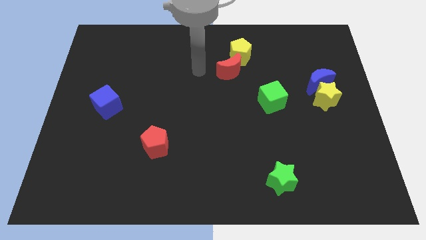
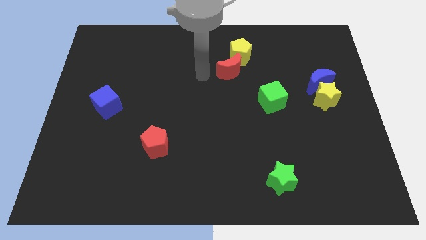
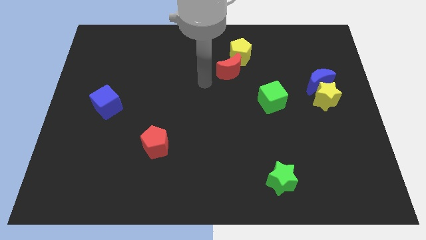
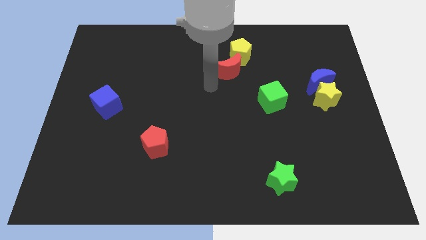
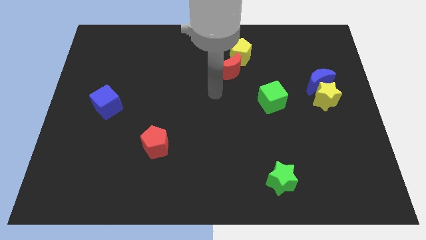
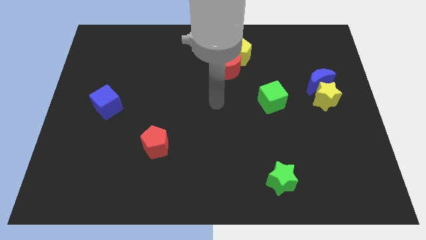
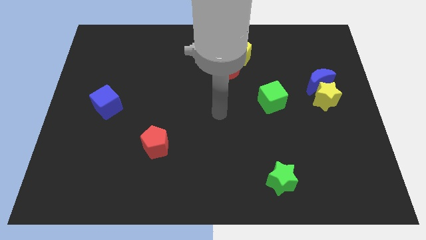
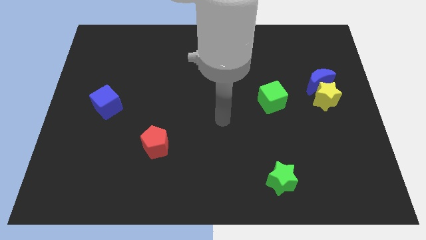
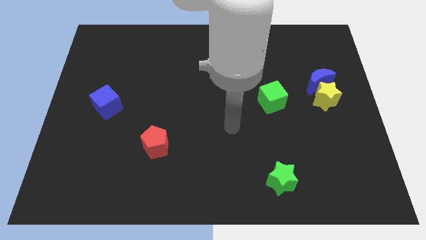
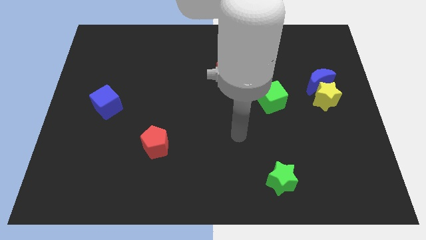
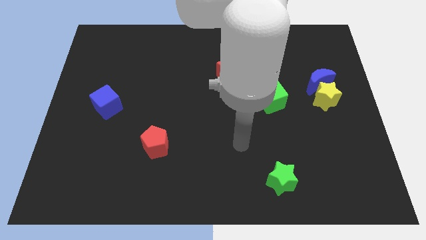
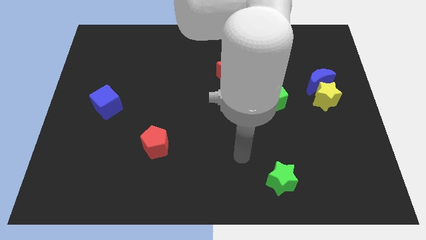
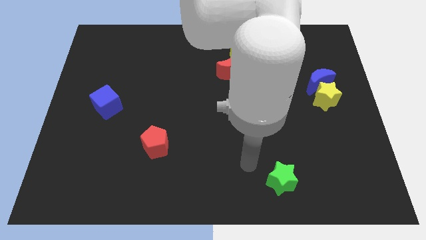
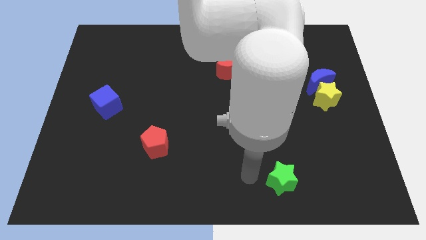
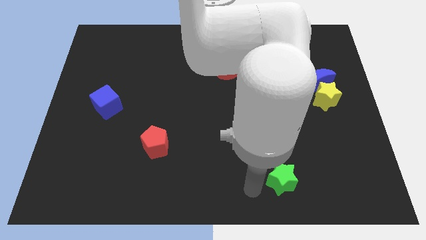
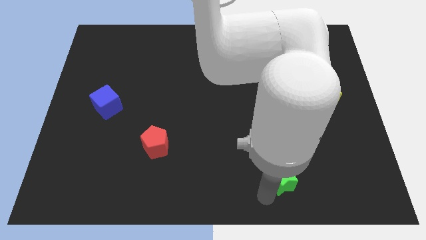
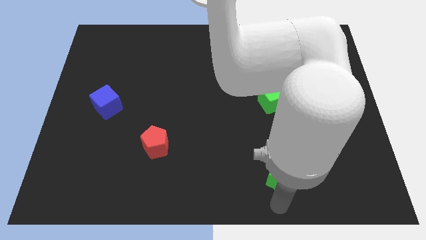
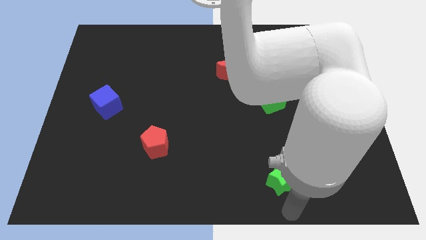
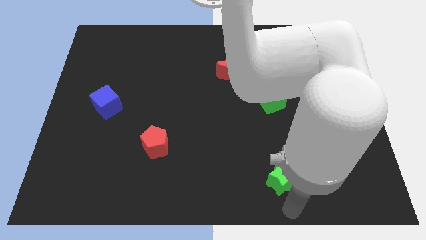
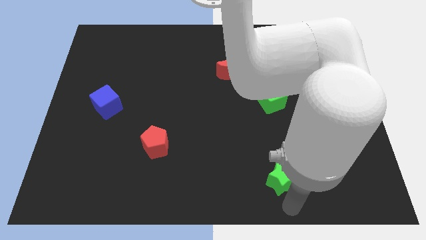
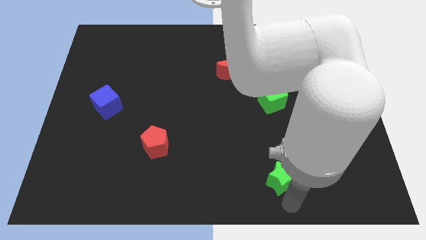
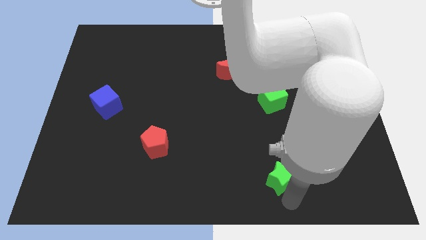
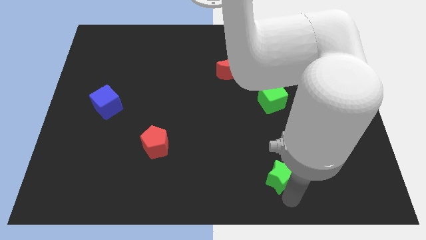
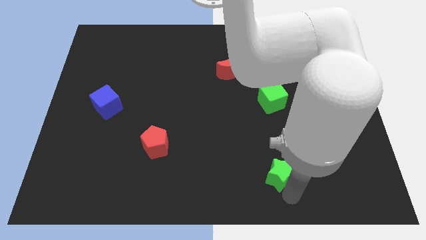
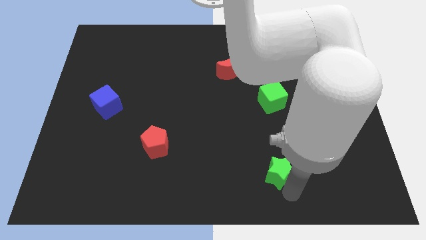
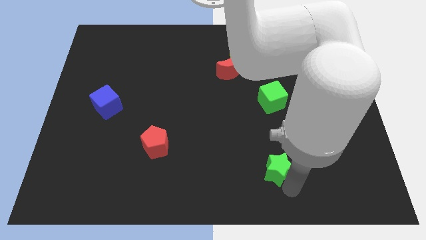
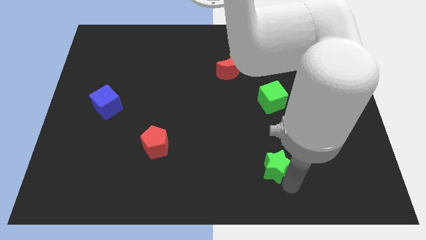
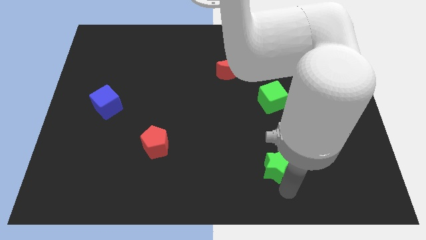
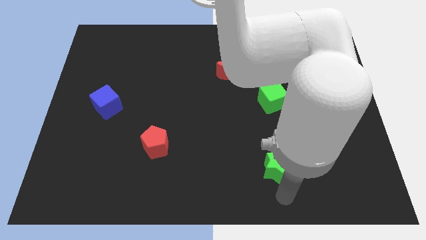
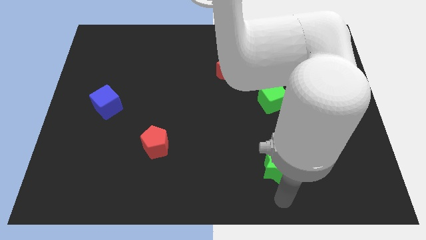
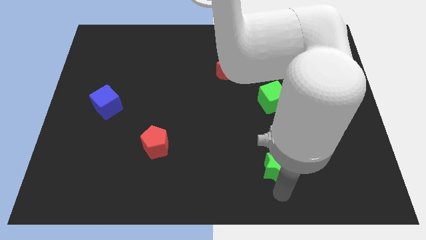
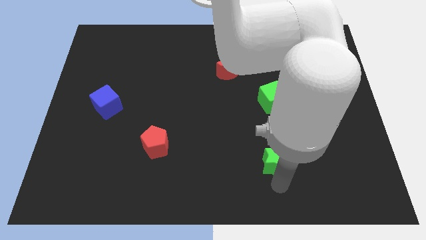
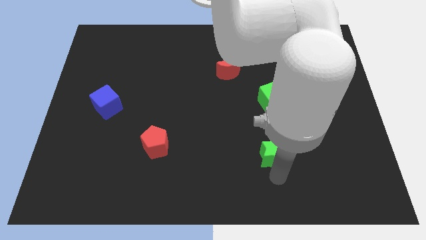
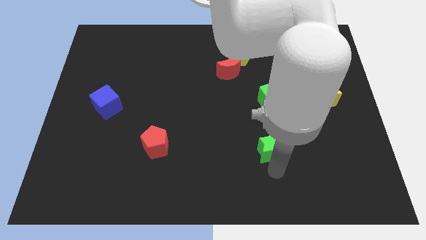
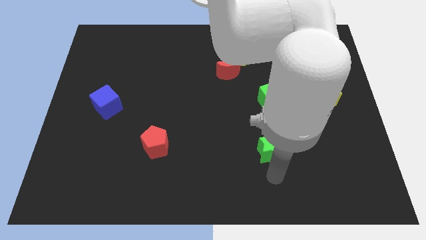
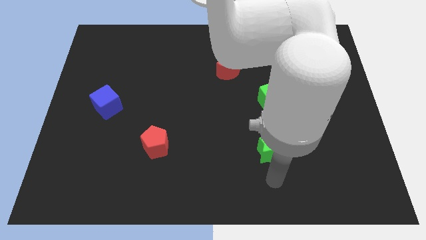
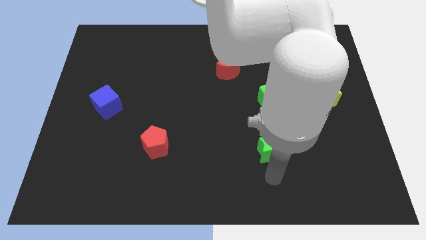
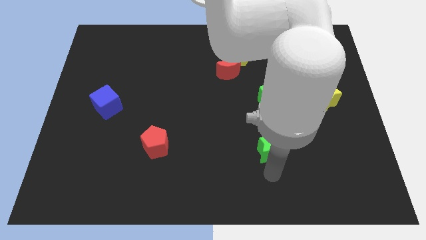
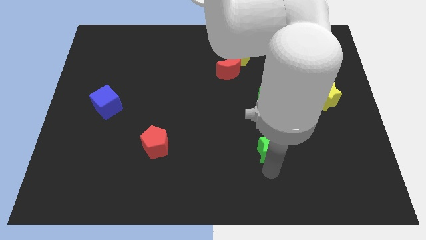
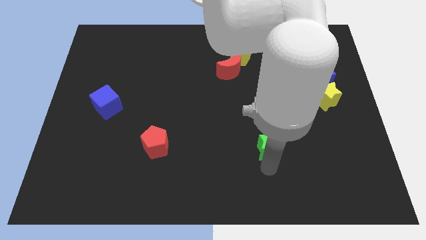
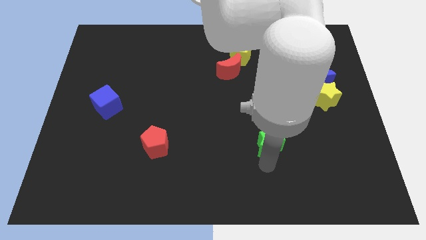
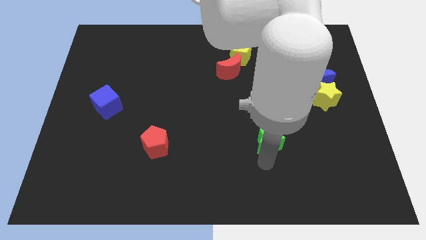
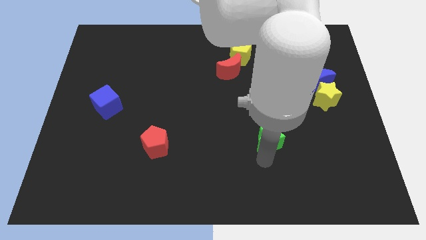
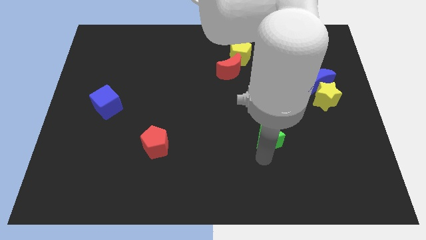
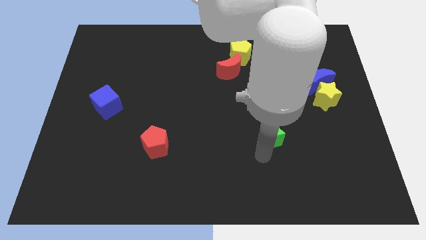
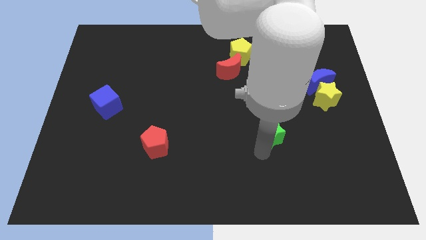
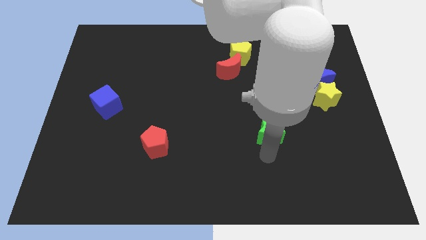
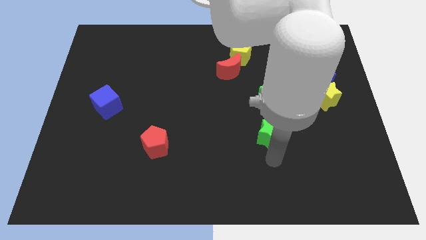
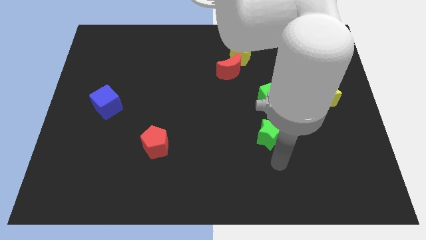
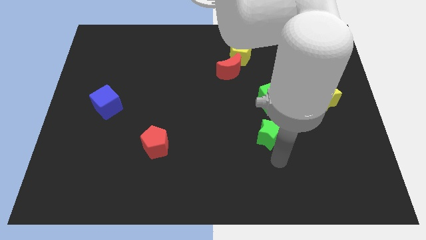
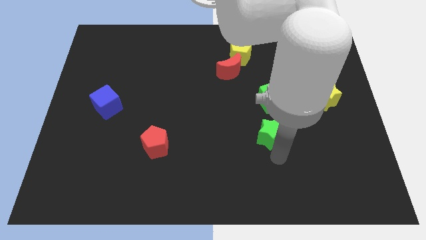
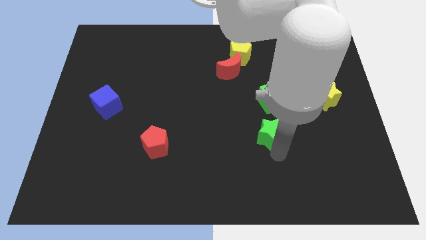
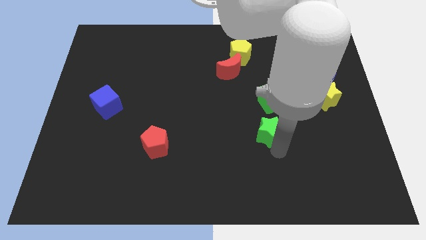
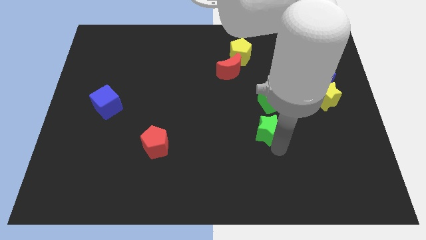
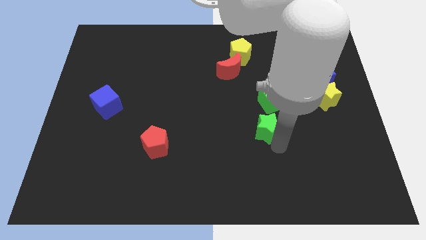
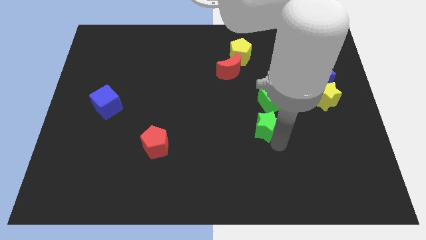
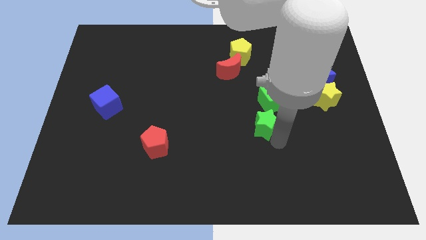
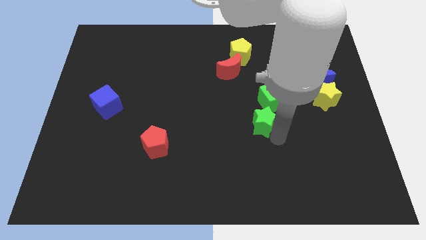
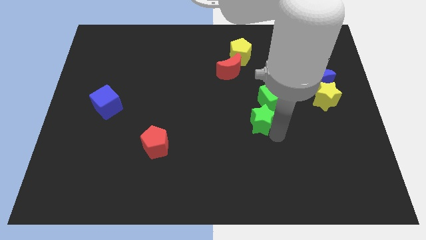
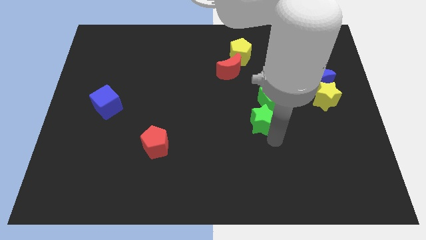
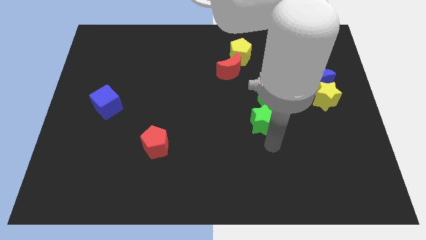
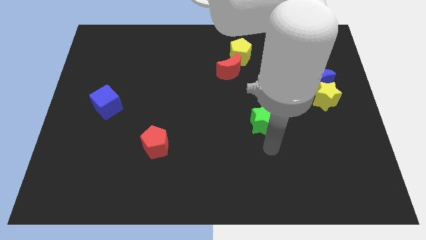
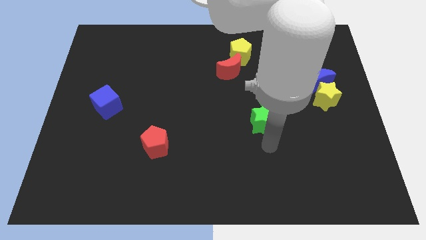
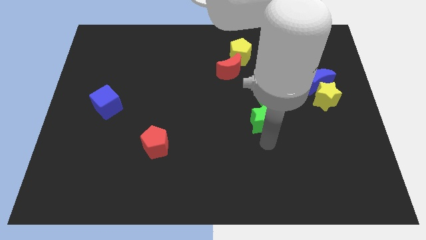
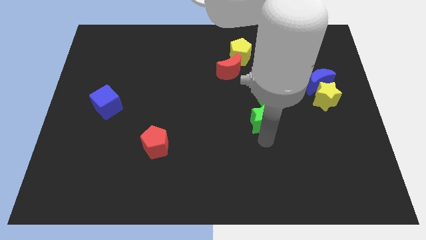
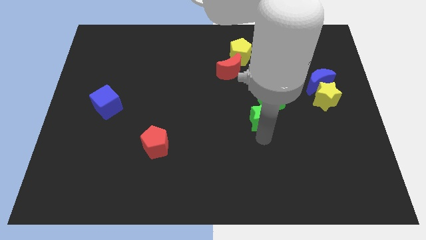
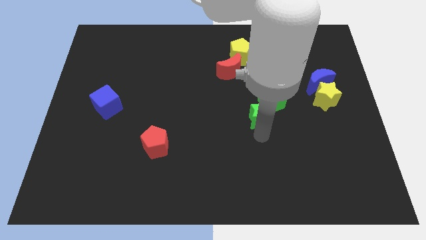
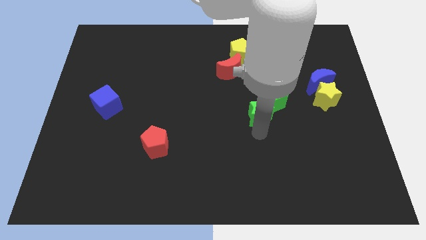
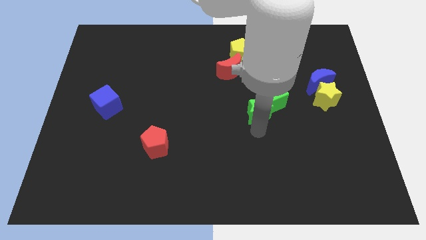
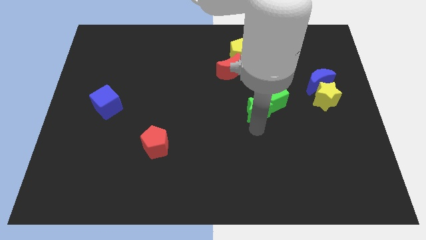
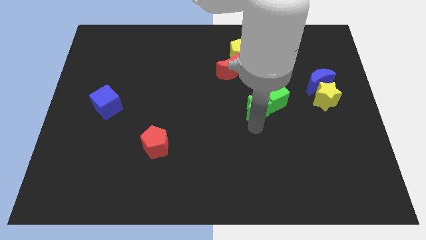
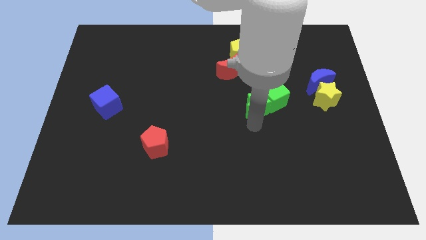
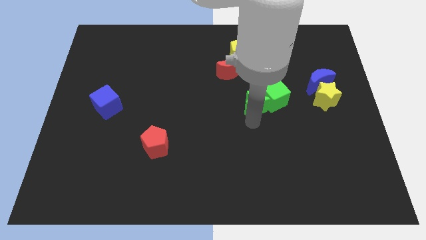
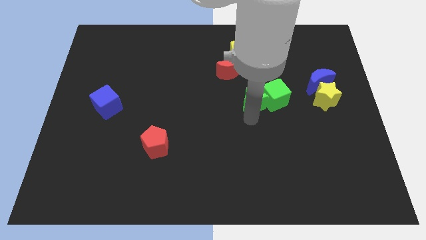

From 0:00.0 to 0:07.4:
move the green star up

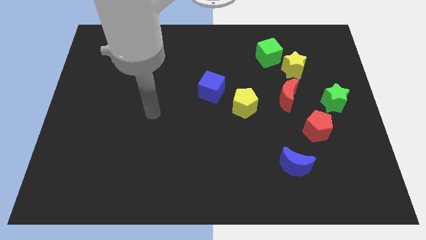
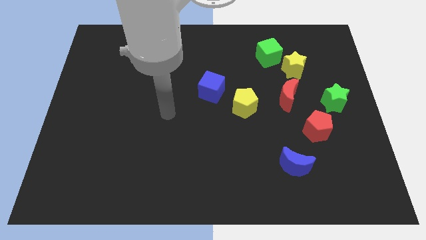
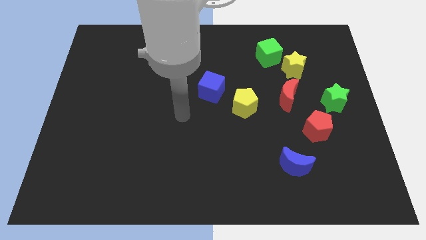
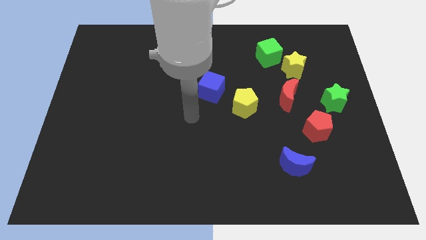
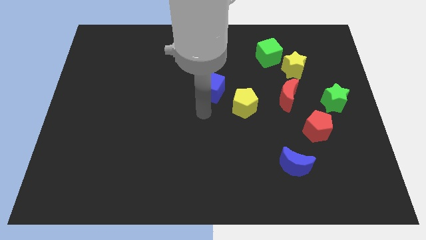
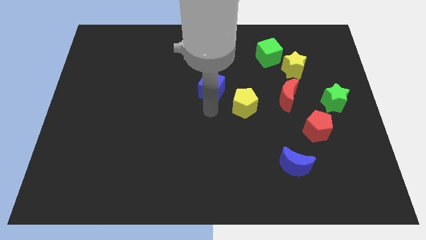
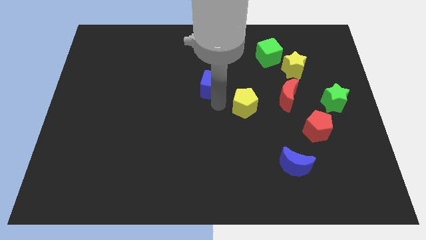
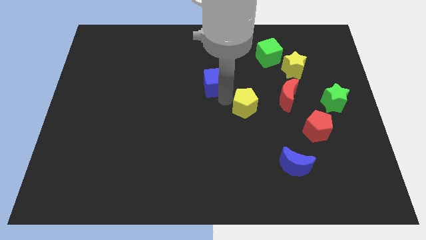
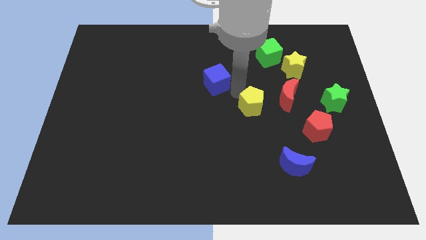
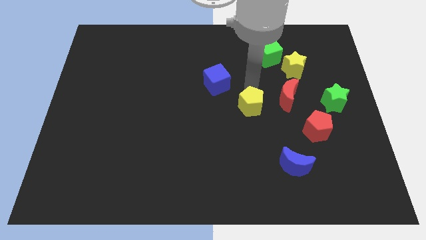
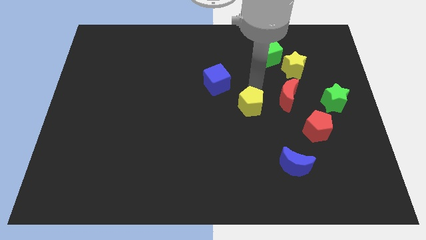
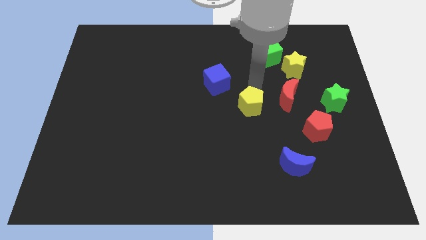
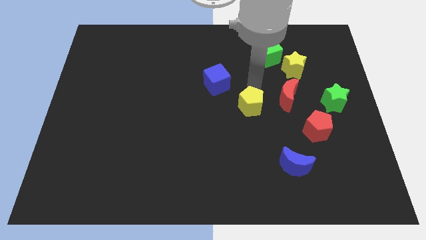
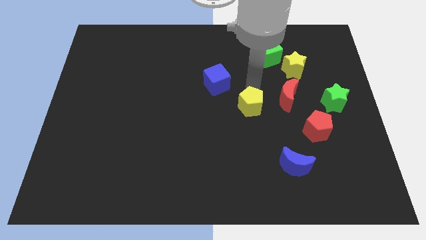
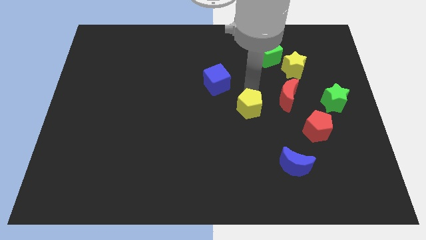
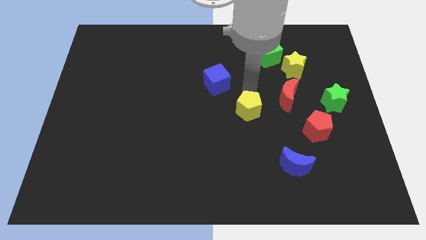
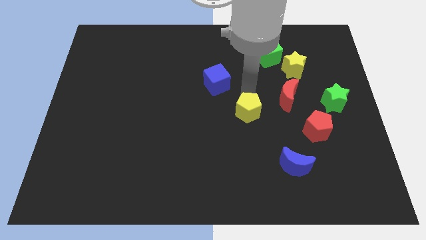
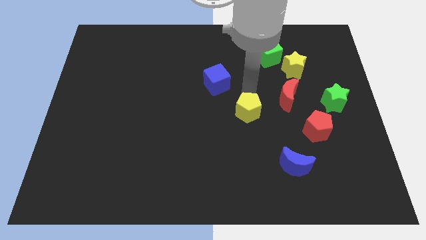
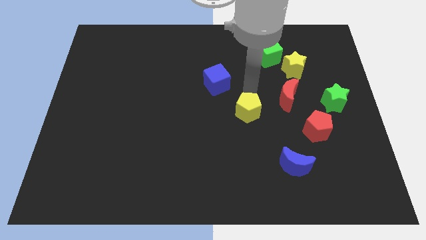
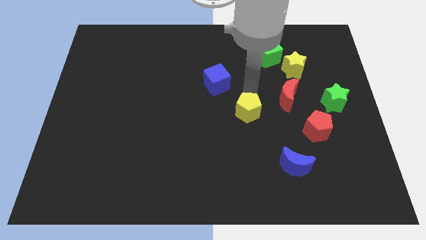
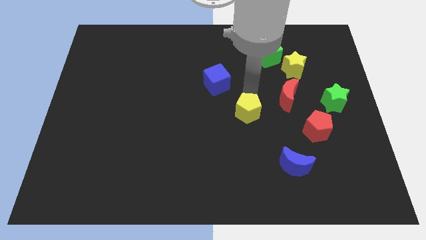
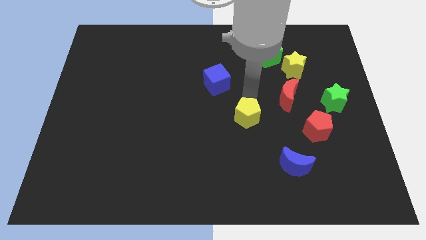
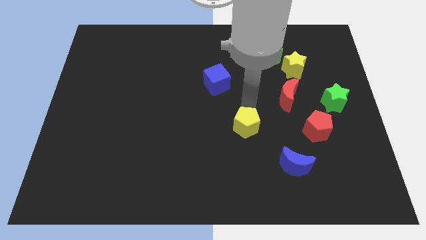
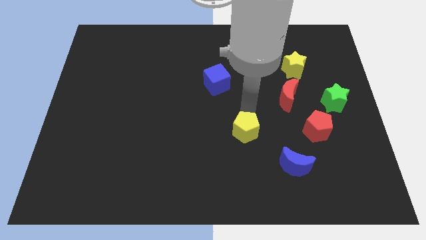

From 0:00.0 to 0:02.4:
slightly push the yellow pentagon down
